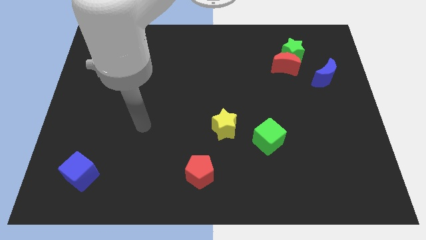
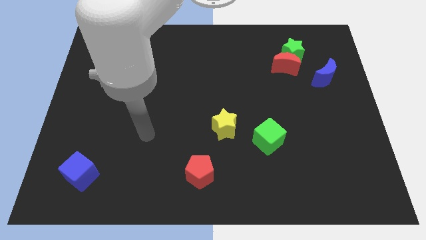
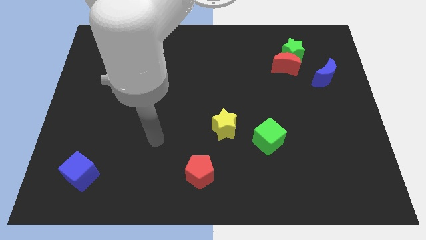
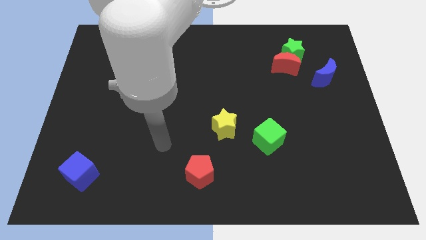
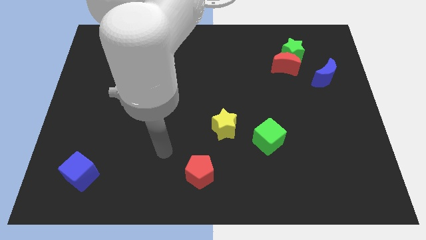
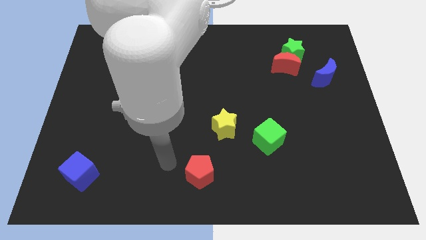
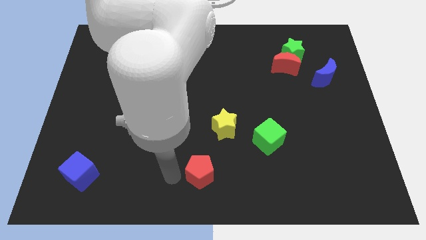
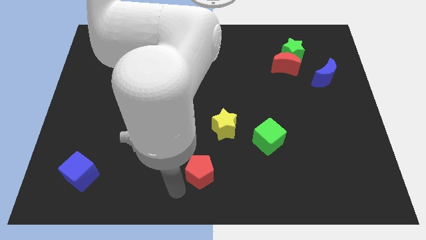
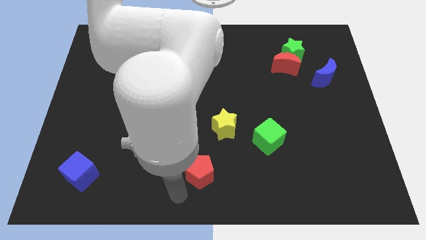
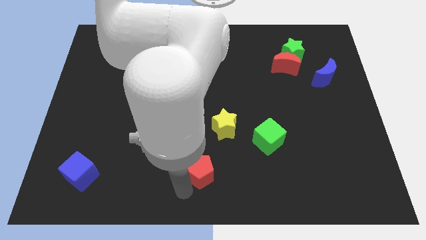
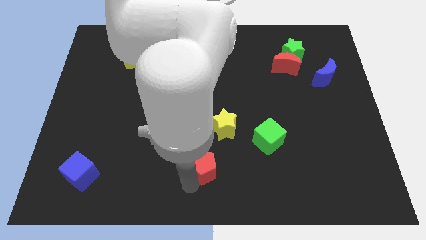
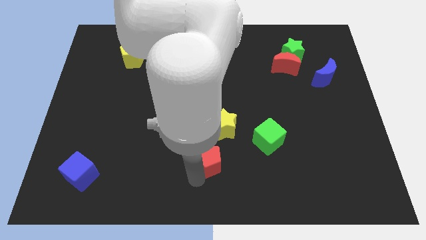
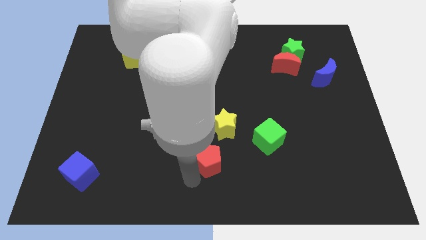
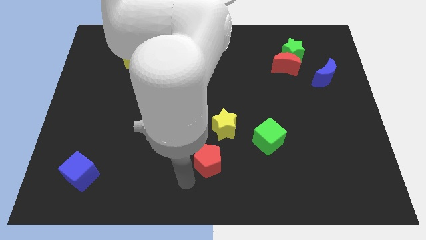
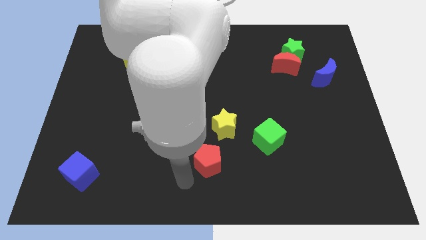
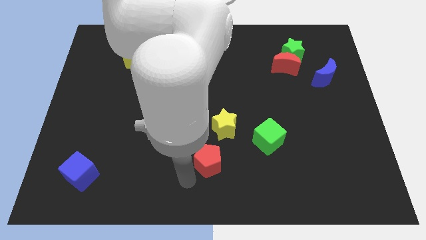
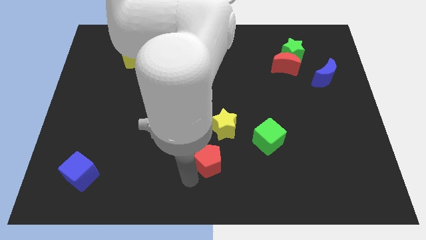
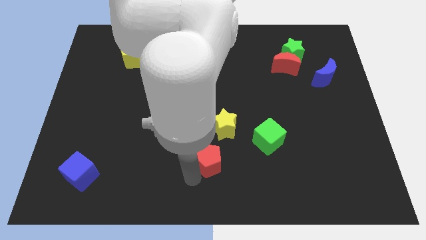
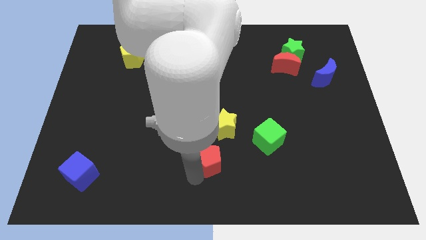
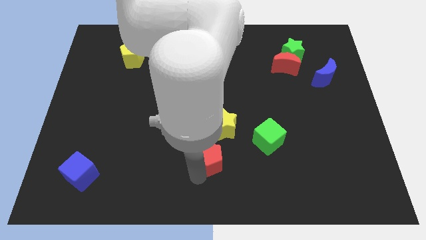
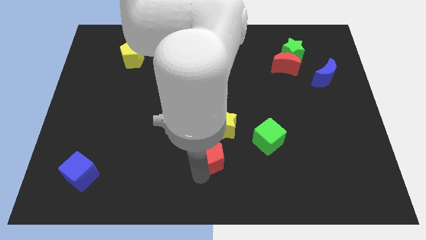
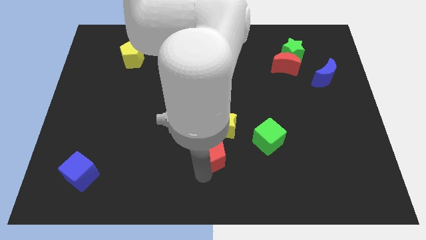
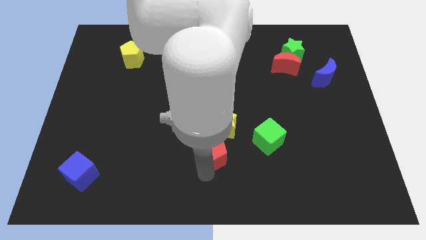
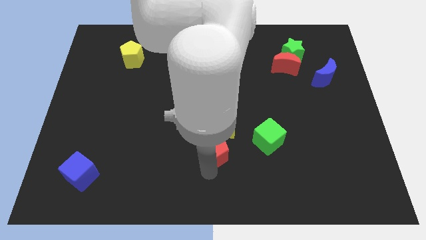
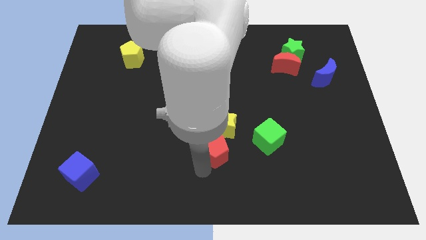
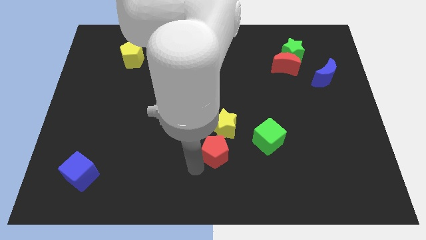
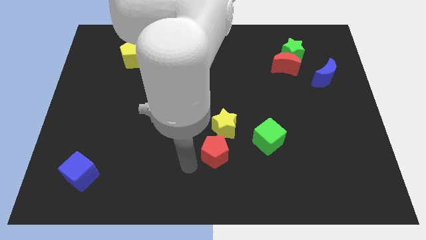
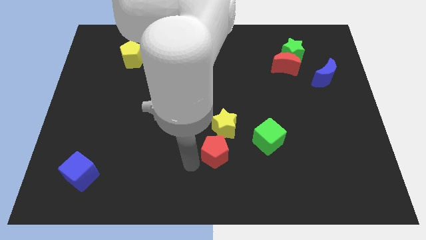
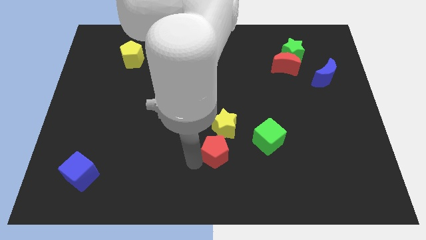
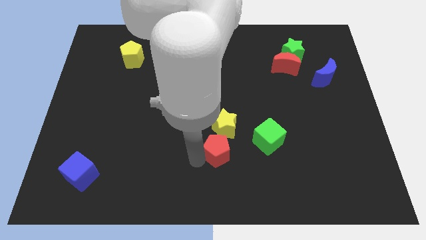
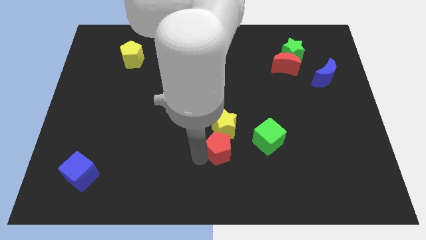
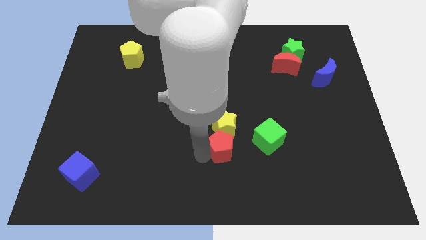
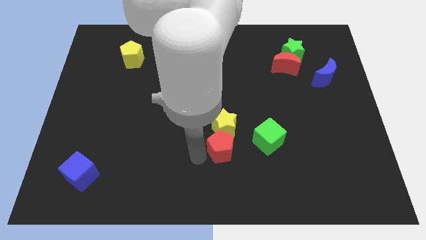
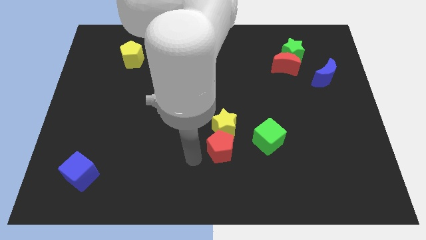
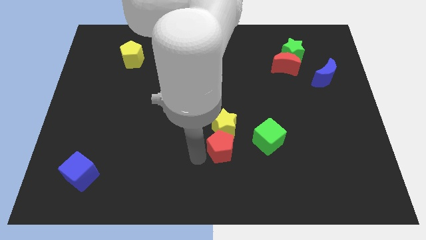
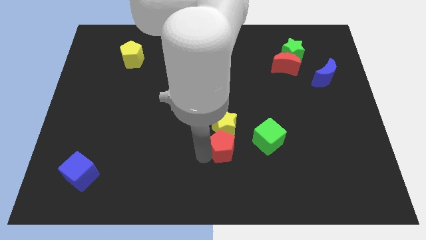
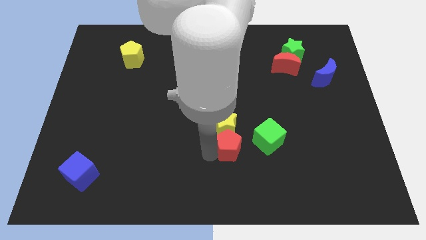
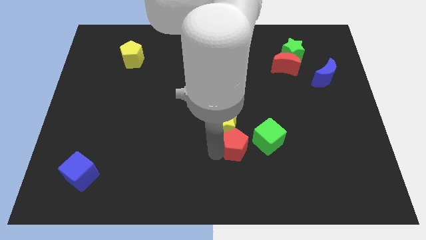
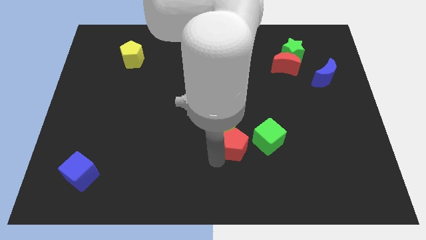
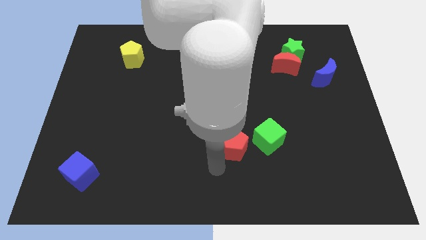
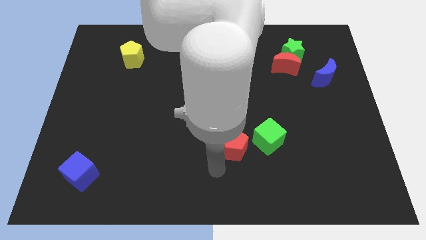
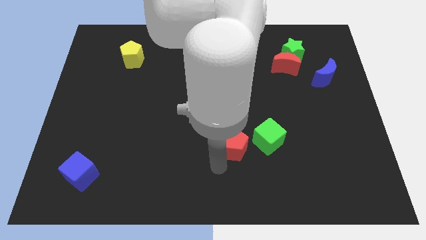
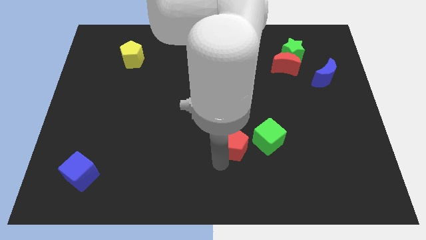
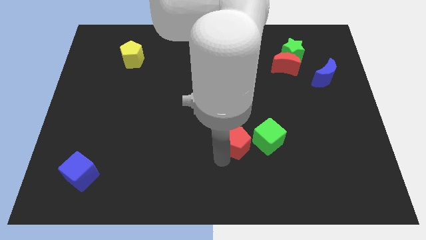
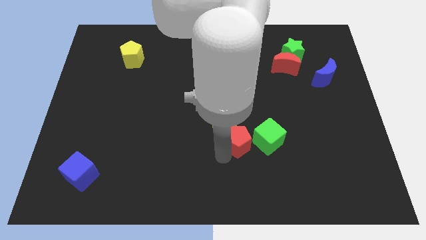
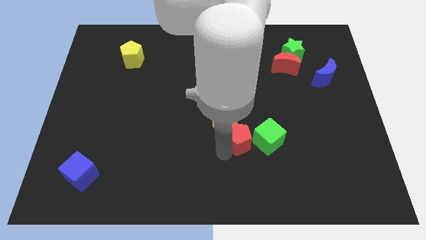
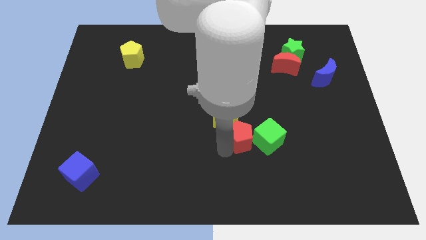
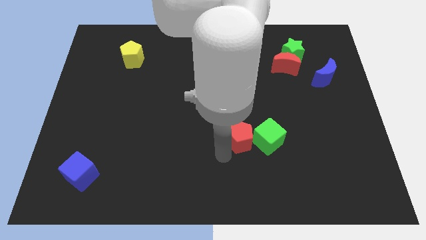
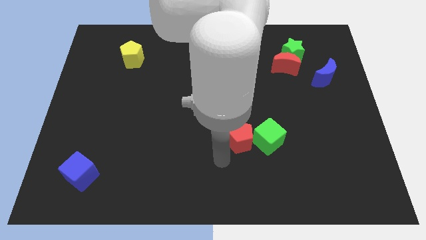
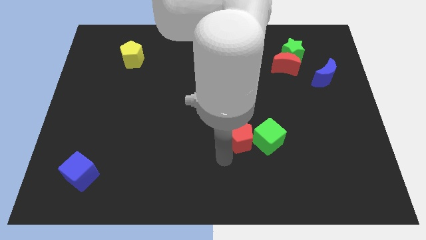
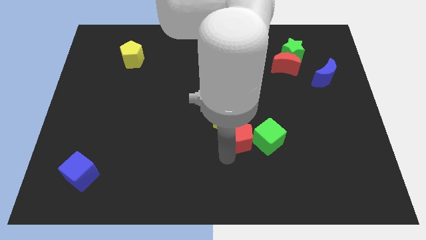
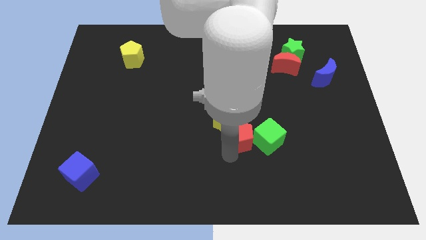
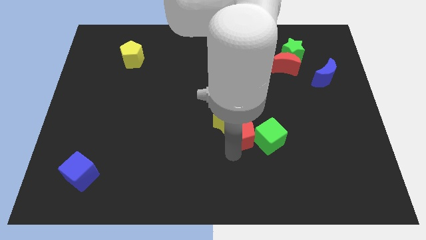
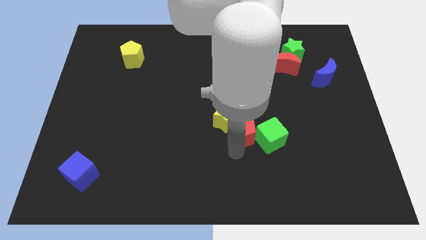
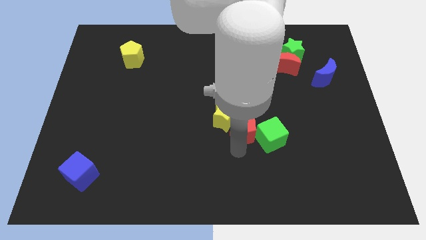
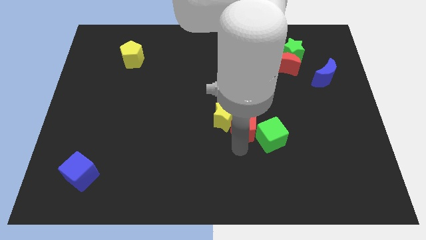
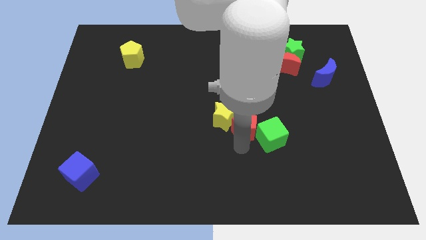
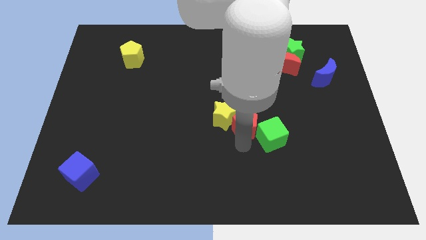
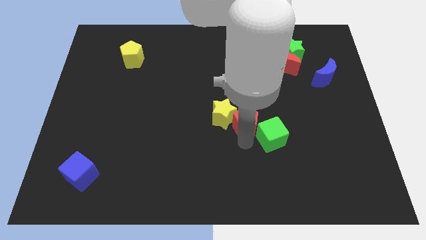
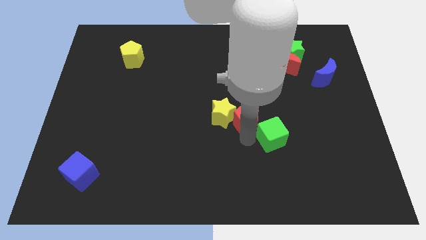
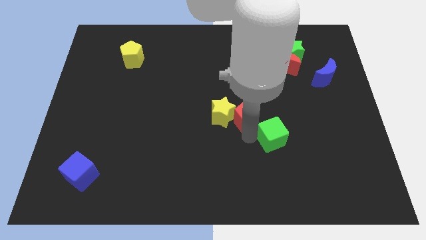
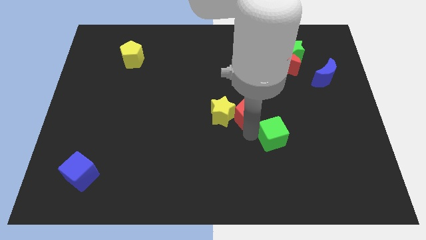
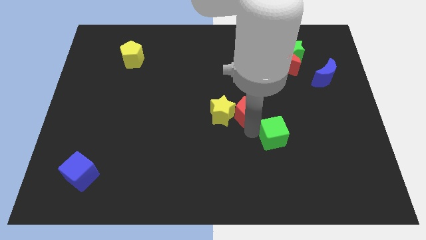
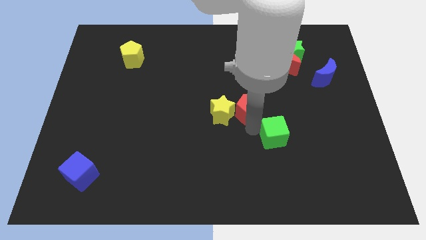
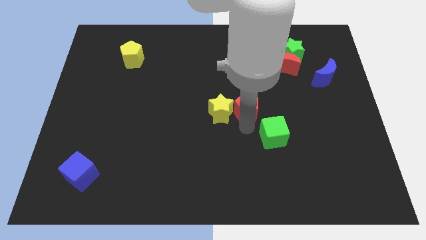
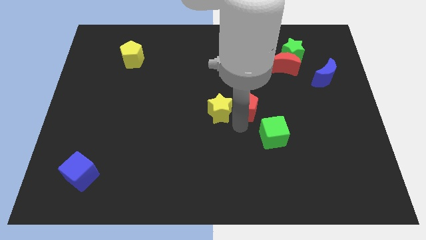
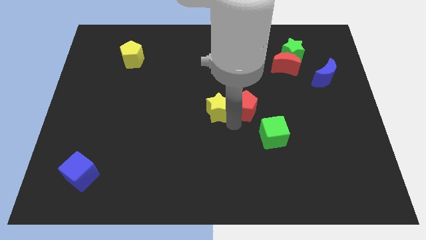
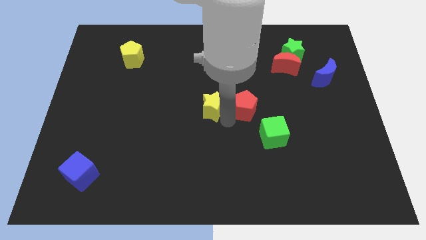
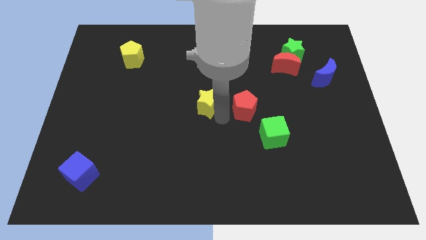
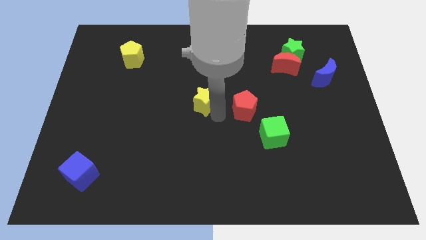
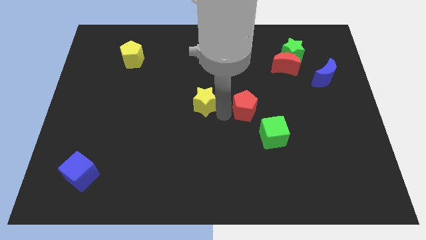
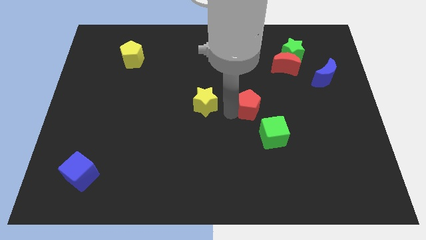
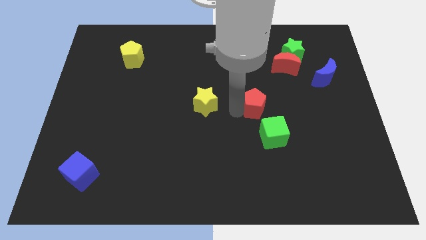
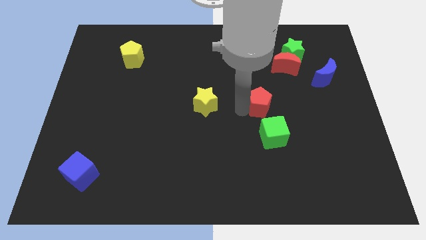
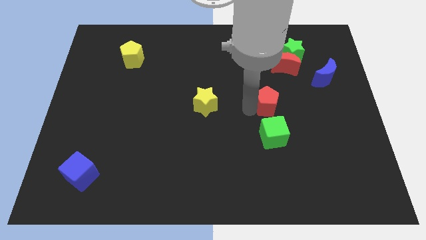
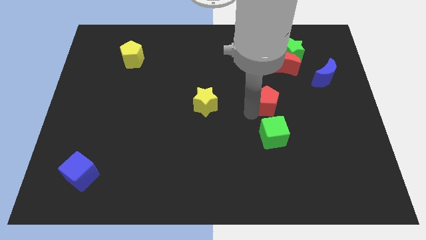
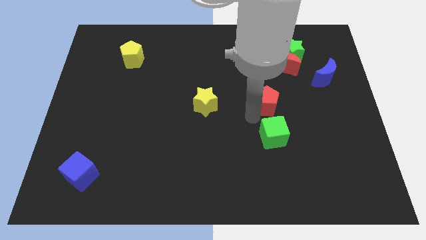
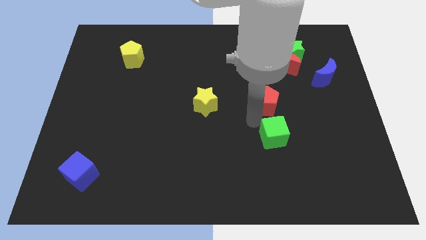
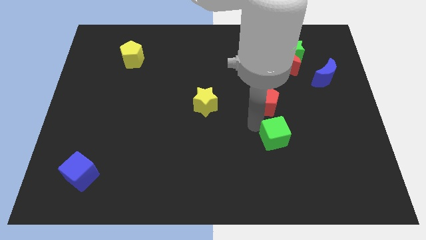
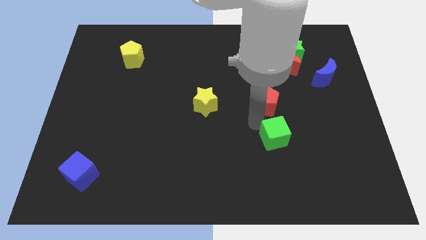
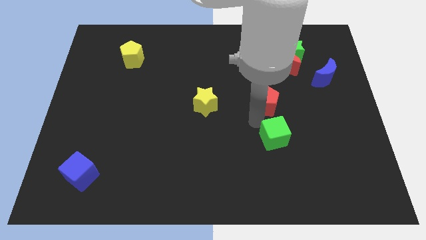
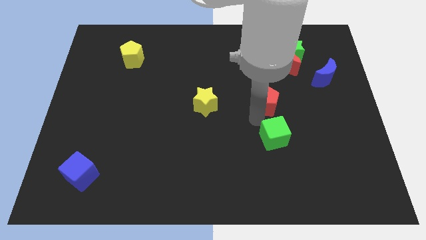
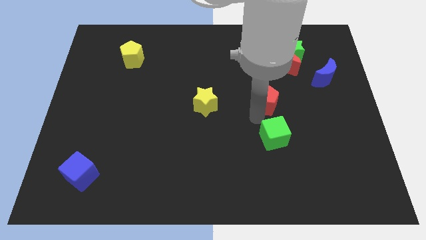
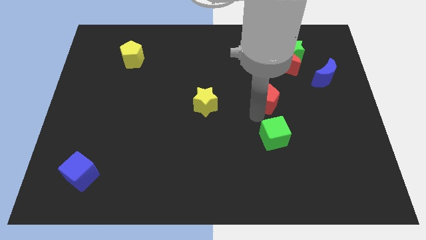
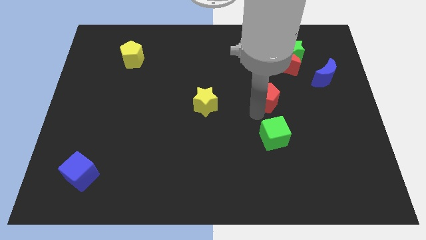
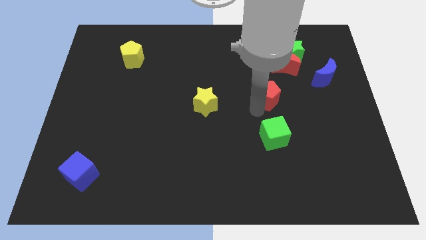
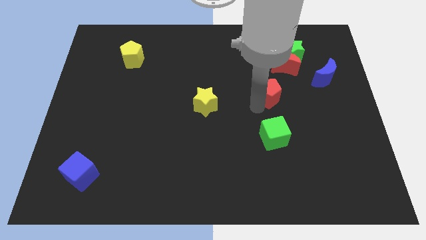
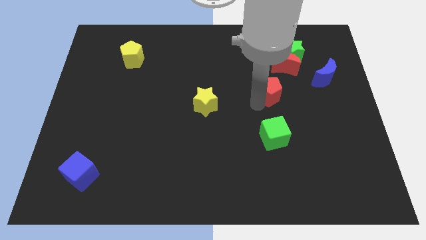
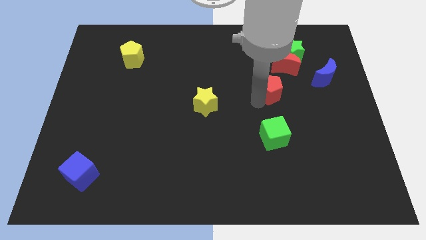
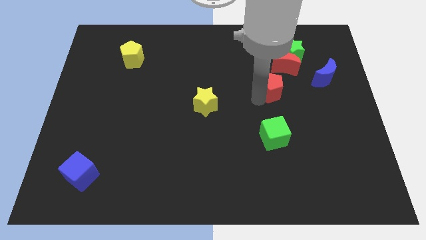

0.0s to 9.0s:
put the red pentagon just left of the blue moon
